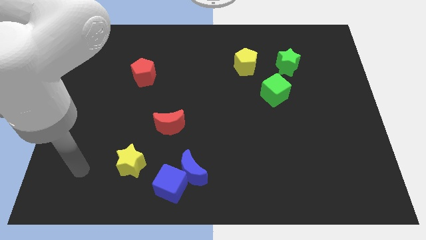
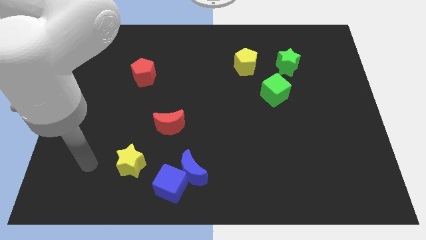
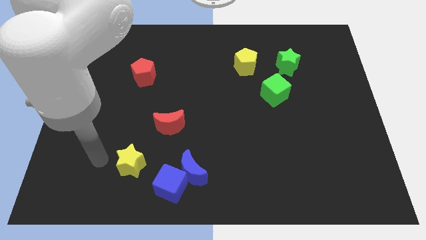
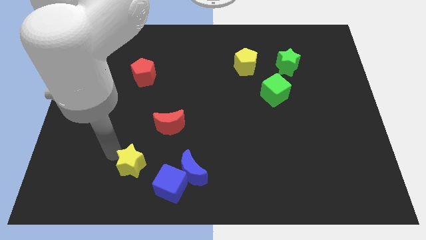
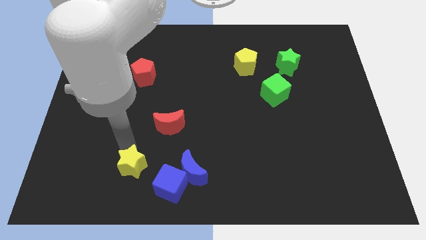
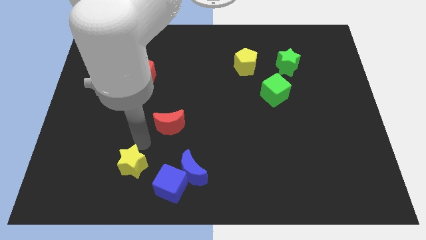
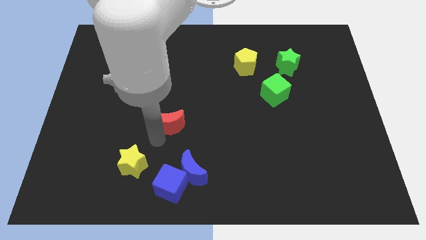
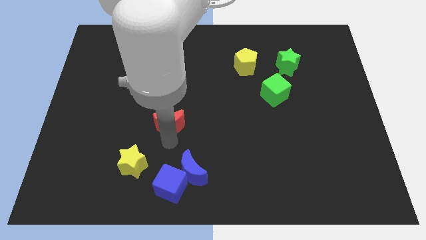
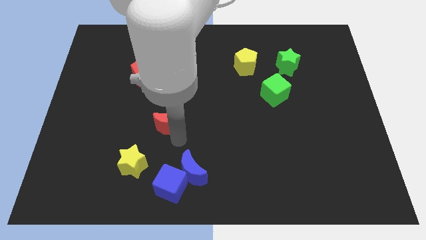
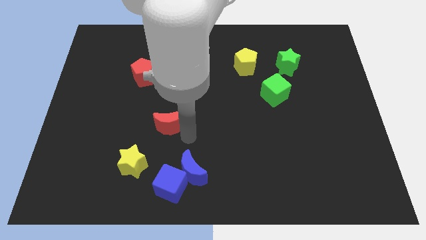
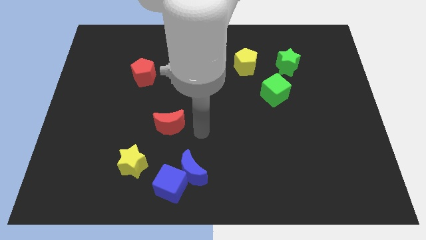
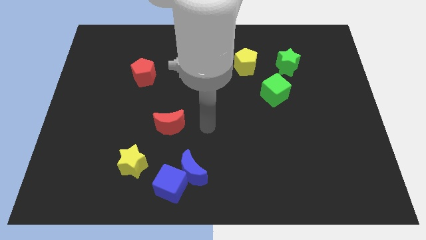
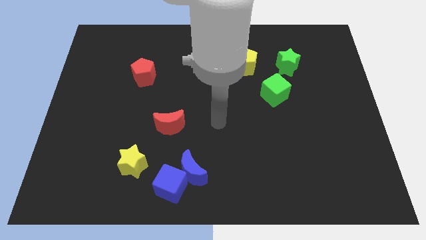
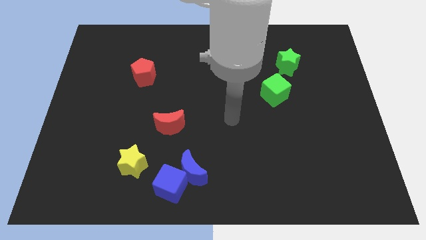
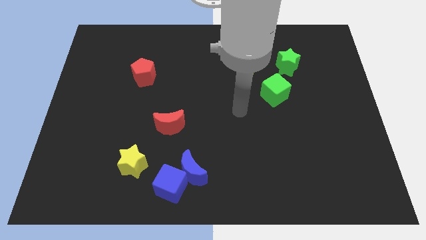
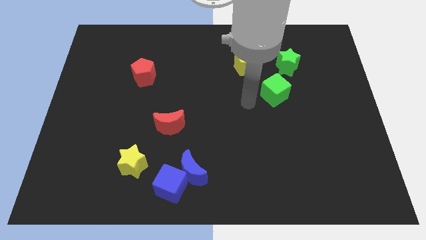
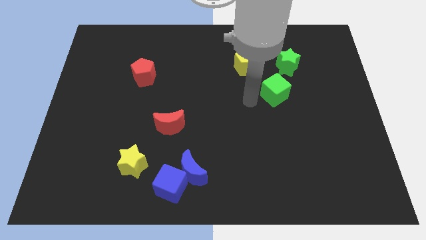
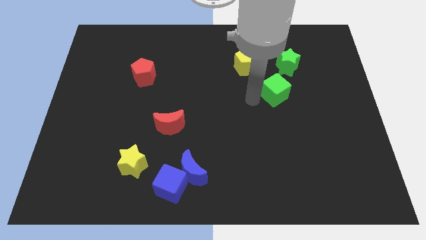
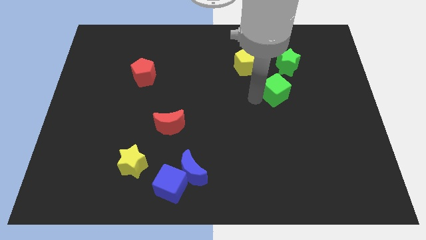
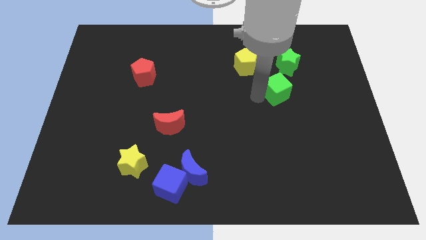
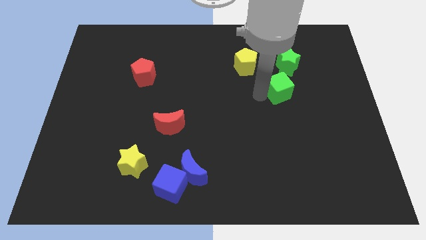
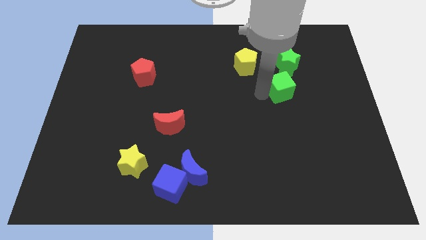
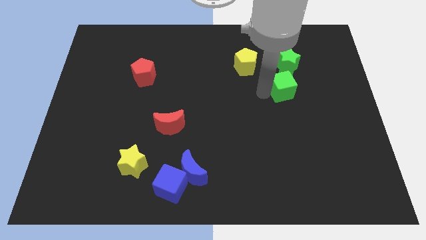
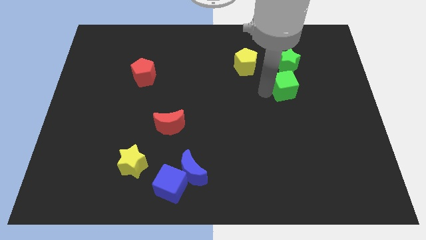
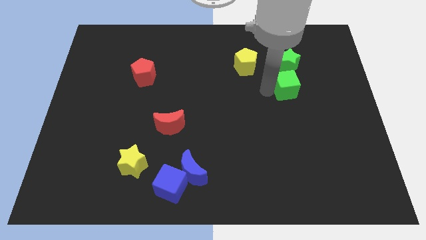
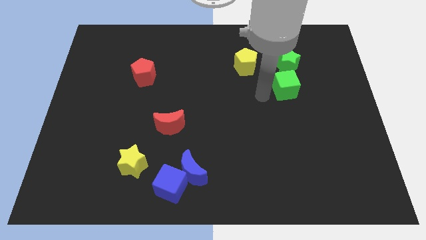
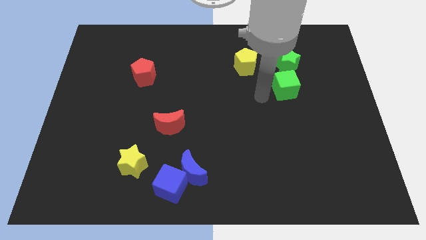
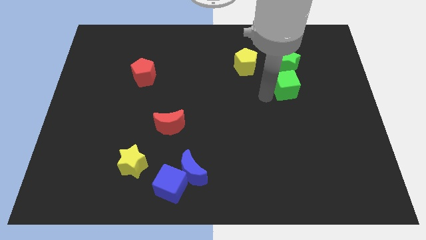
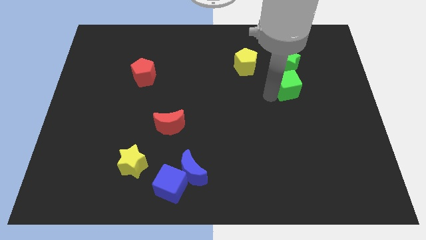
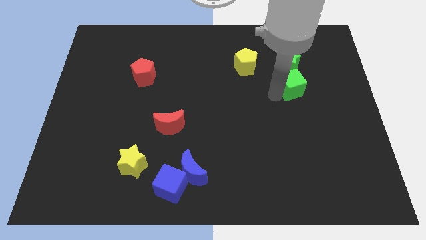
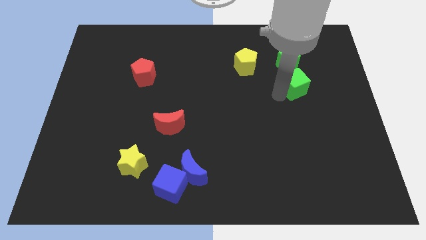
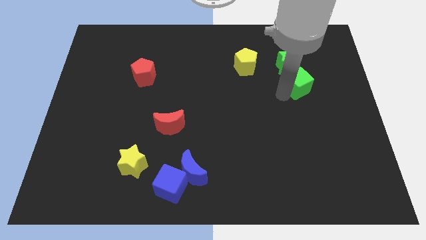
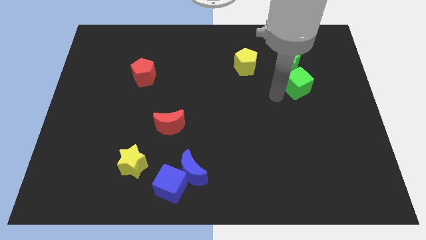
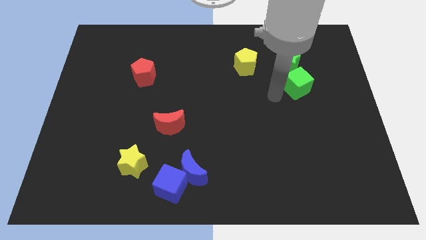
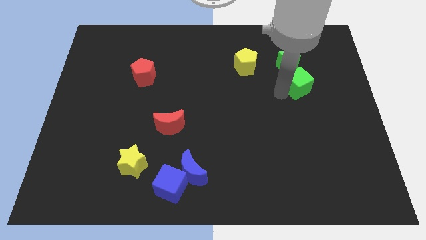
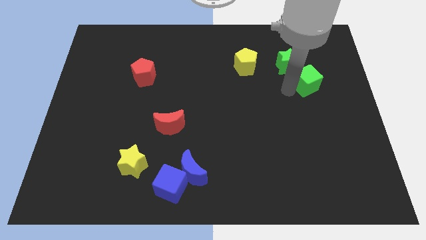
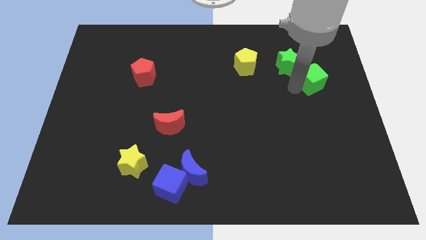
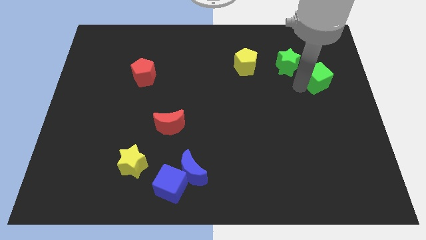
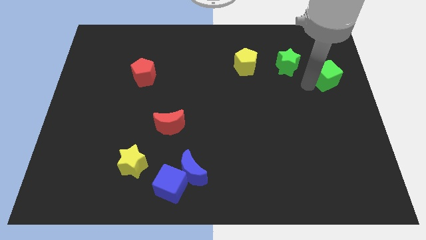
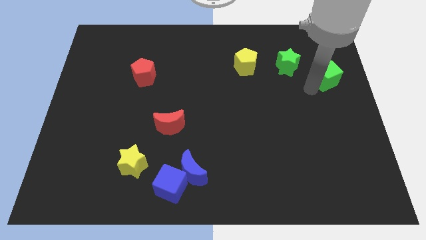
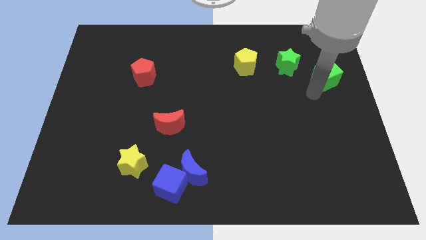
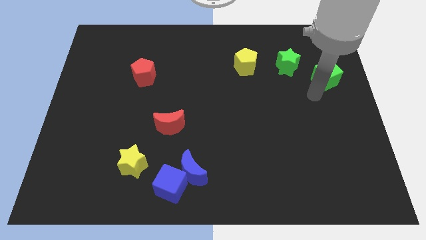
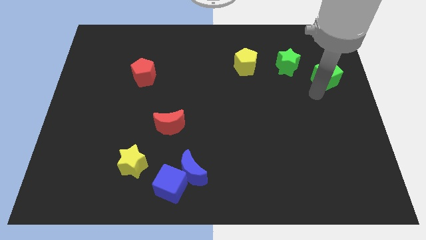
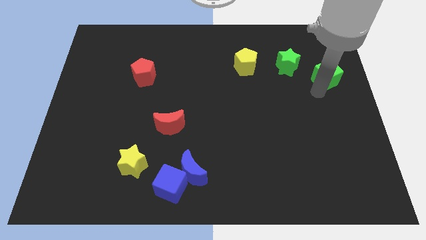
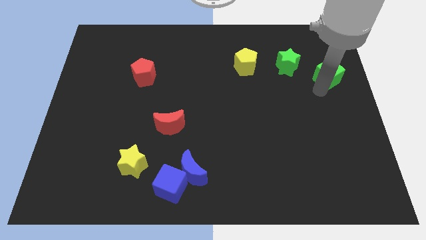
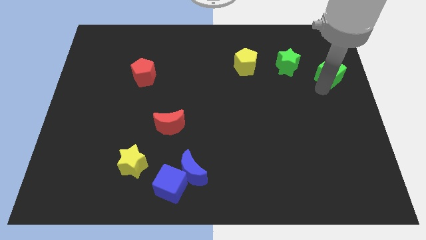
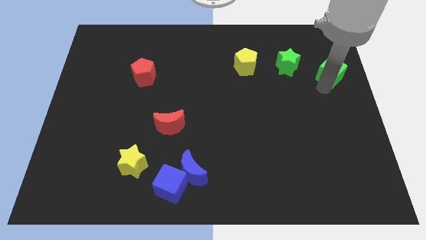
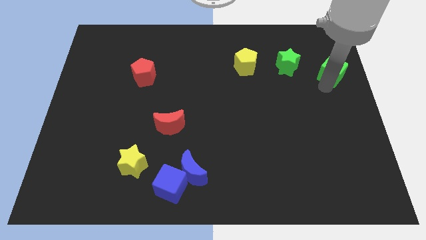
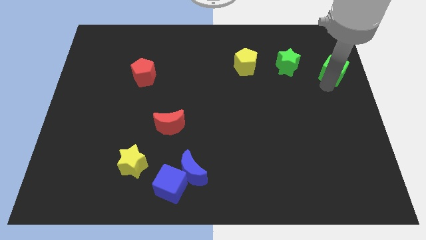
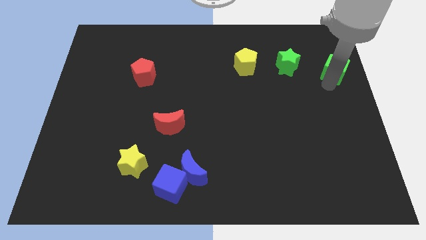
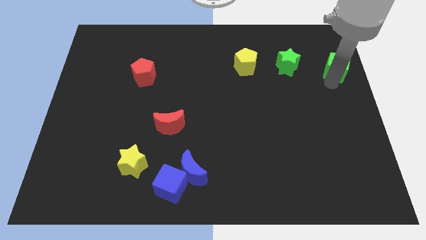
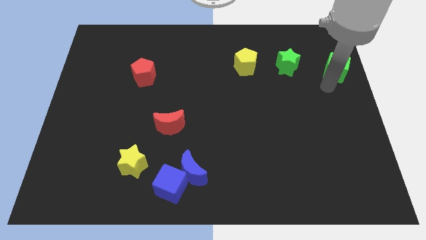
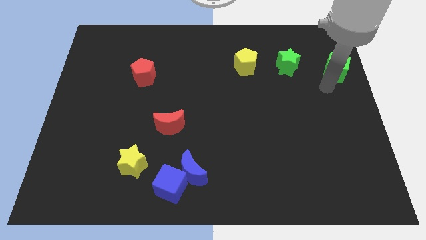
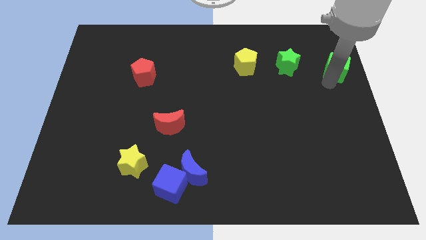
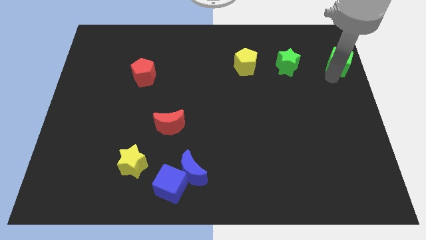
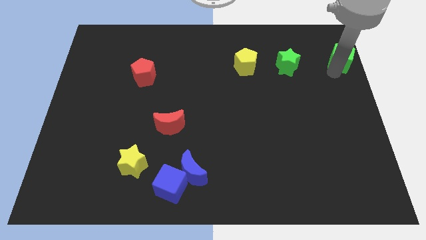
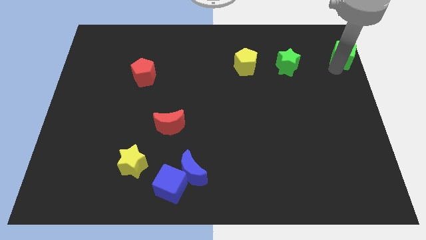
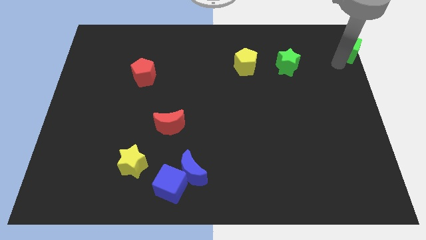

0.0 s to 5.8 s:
slide the green cube to the upper right corner

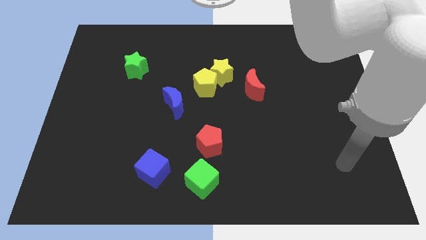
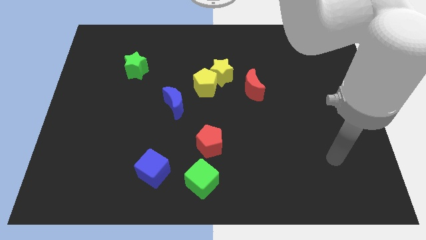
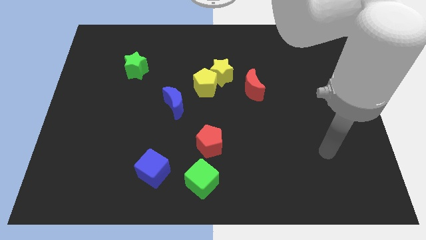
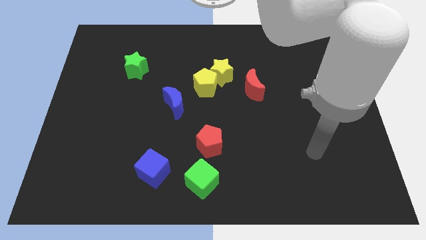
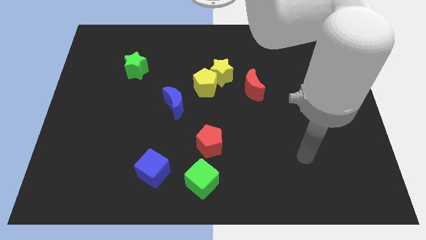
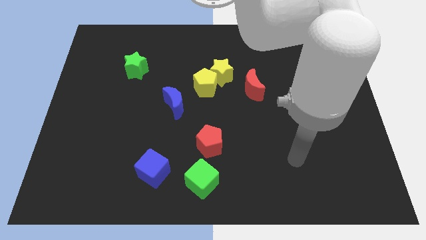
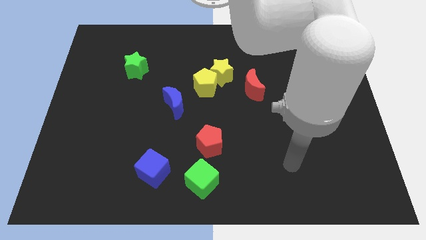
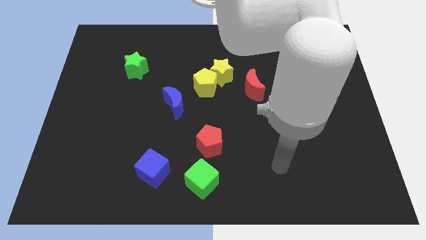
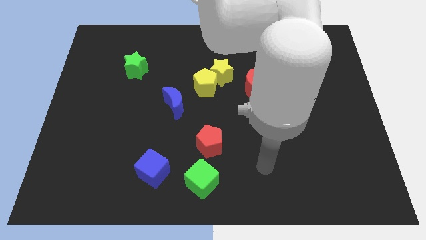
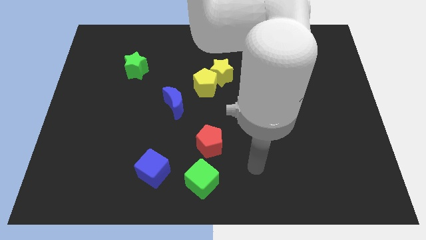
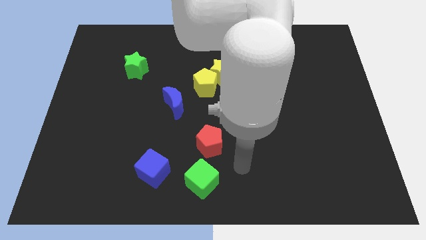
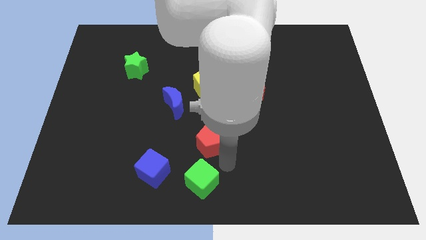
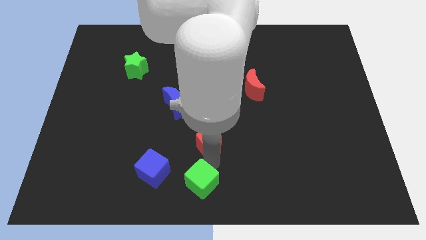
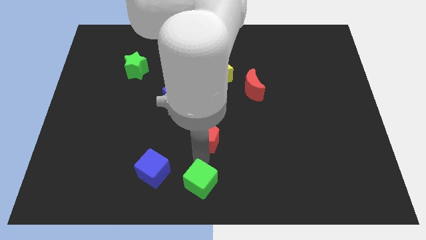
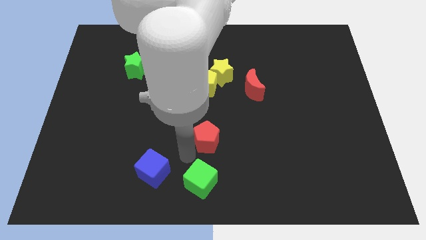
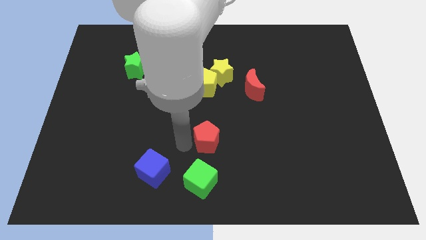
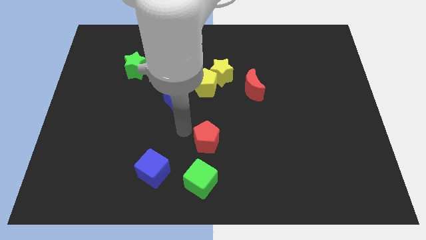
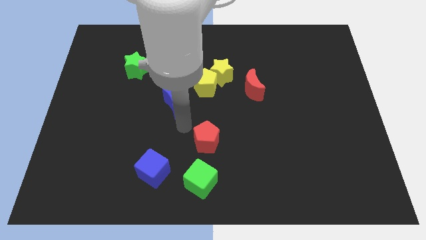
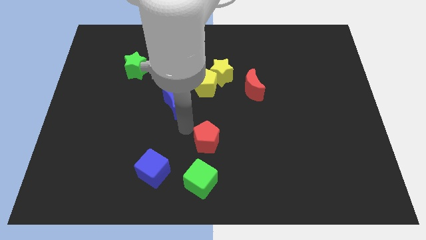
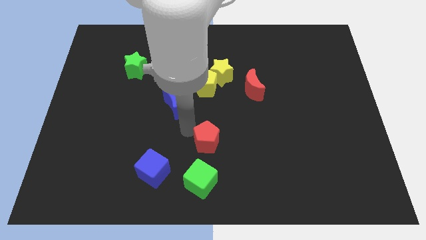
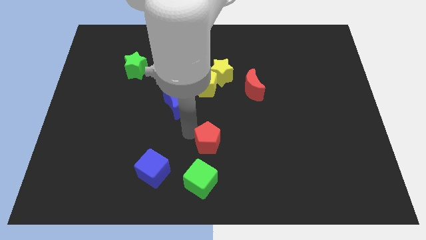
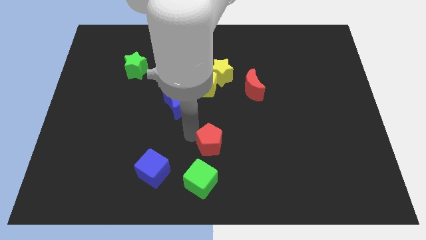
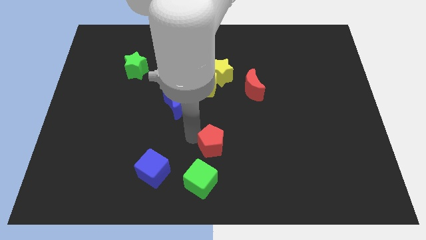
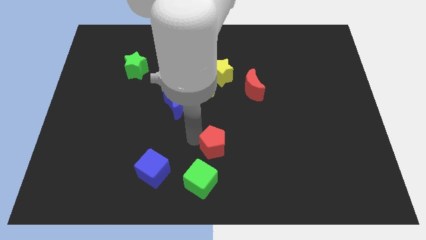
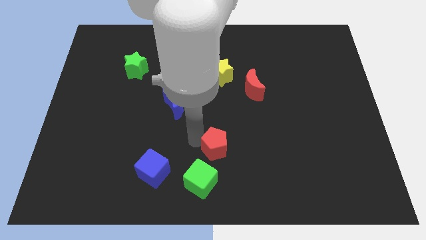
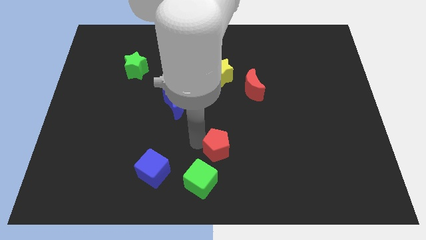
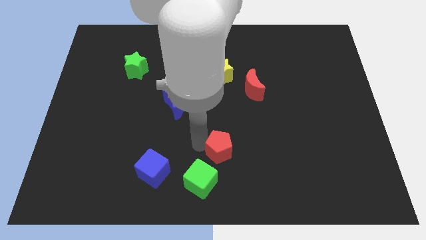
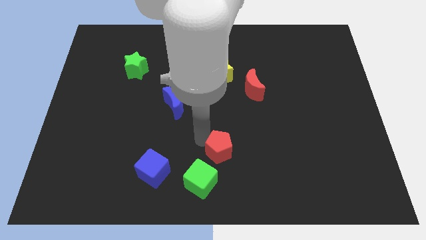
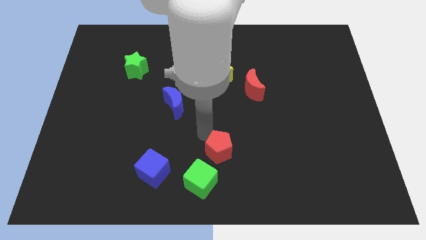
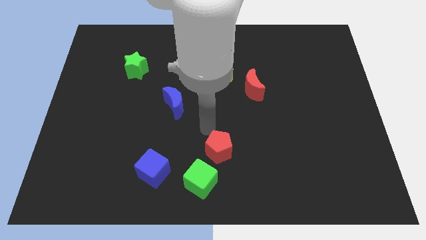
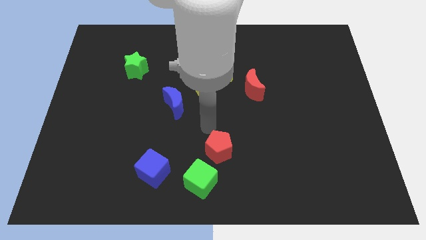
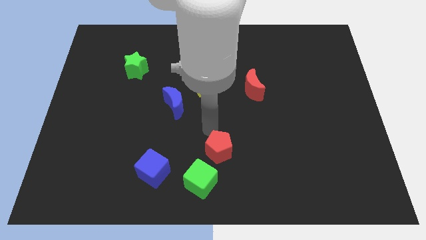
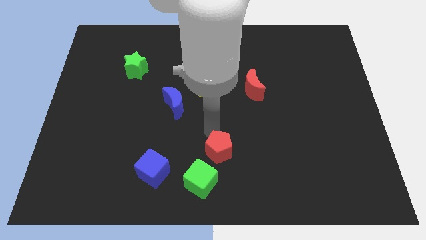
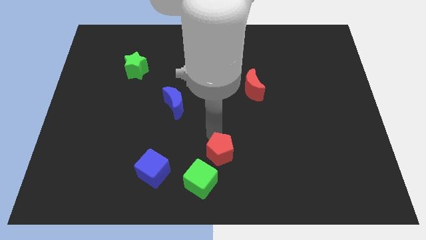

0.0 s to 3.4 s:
move the red pentagon to the bottom
